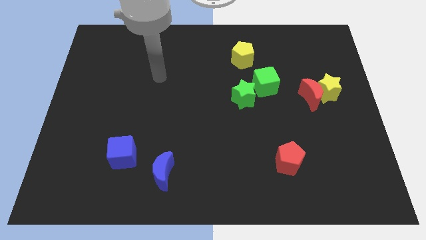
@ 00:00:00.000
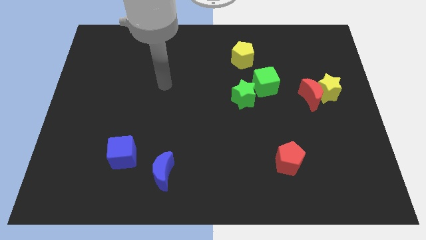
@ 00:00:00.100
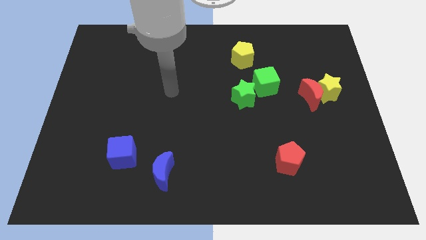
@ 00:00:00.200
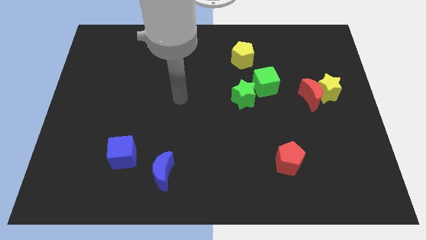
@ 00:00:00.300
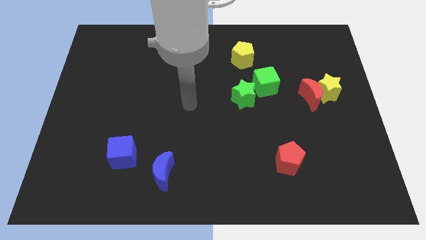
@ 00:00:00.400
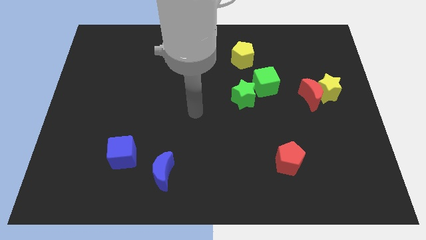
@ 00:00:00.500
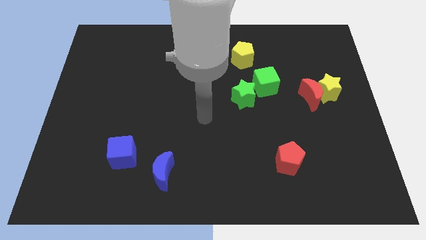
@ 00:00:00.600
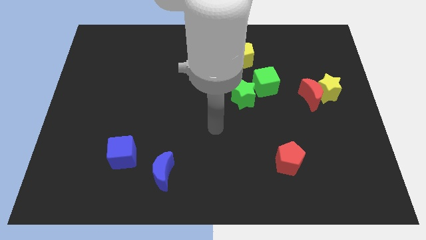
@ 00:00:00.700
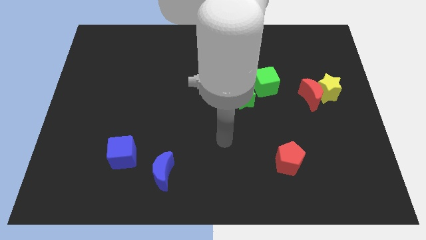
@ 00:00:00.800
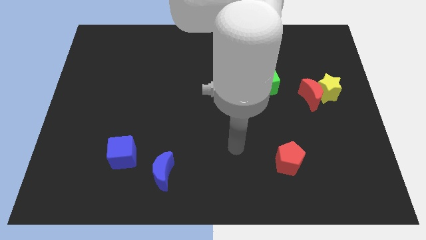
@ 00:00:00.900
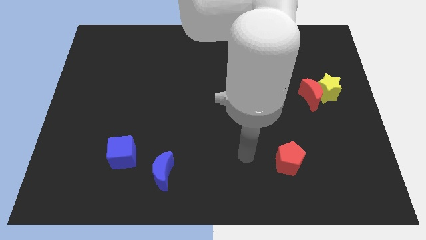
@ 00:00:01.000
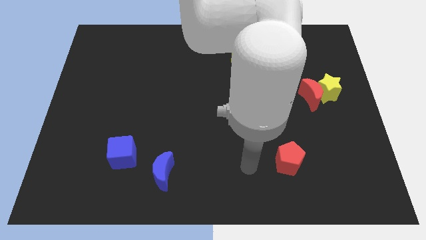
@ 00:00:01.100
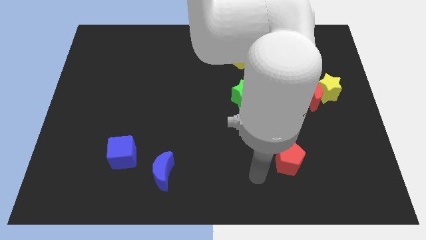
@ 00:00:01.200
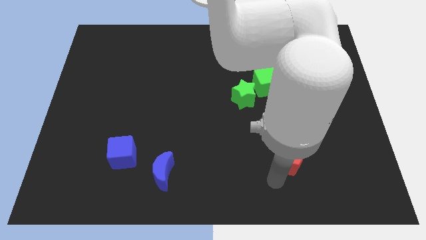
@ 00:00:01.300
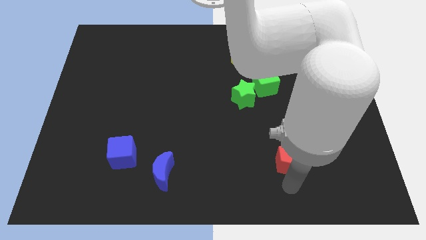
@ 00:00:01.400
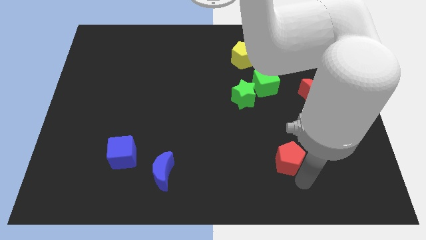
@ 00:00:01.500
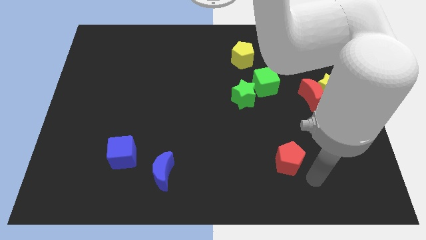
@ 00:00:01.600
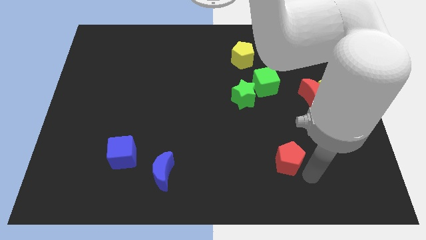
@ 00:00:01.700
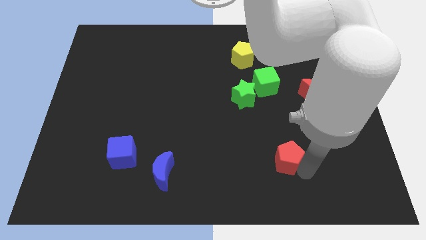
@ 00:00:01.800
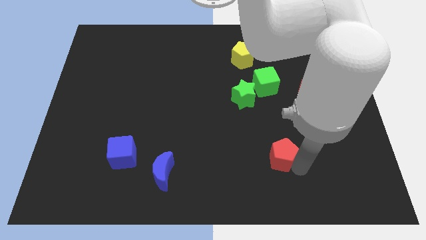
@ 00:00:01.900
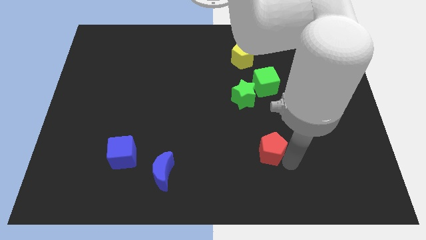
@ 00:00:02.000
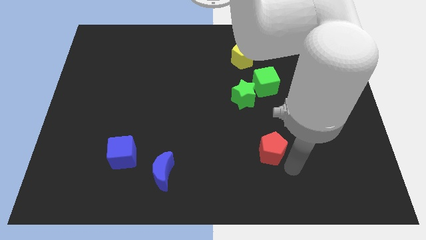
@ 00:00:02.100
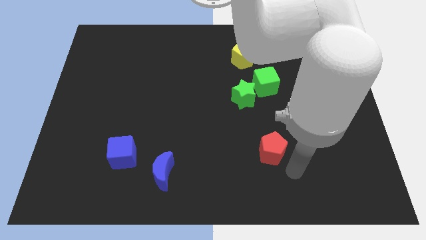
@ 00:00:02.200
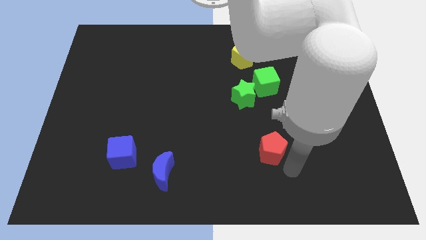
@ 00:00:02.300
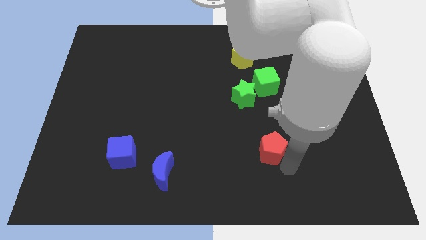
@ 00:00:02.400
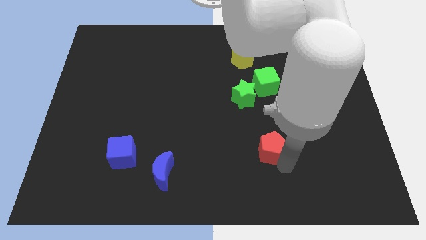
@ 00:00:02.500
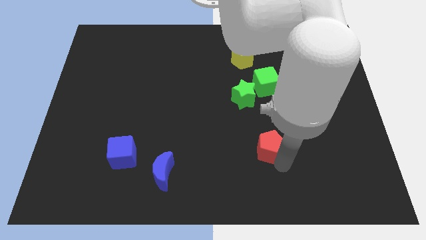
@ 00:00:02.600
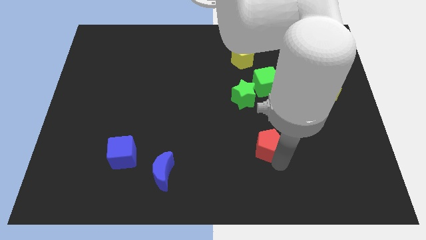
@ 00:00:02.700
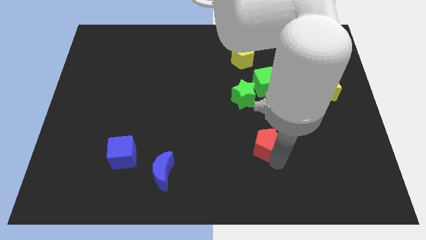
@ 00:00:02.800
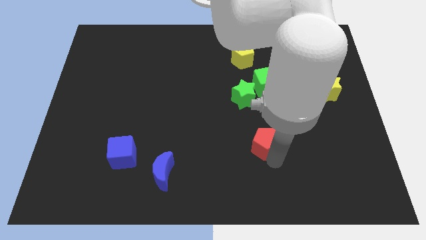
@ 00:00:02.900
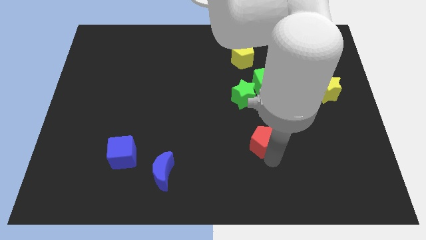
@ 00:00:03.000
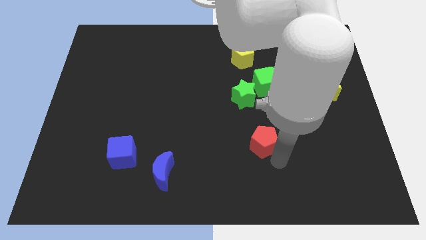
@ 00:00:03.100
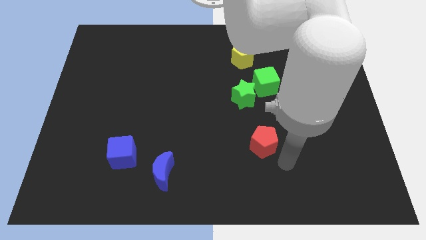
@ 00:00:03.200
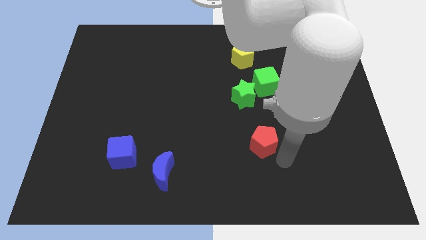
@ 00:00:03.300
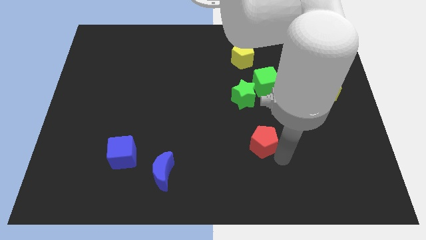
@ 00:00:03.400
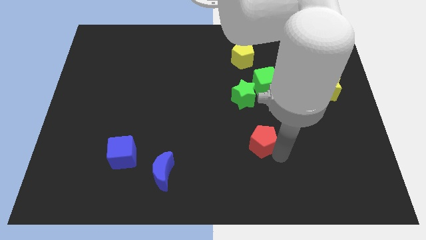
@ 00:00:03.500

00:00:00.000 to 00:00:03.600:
push the red pentagon upwards and then left a bit

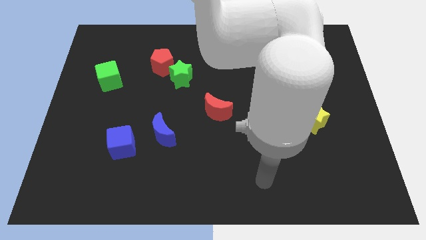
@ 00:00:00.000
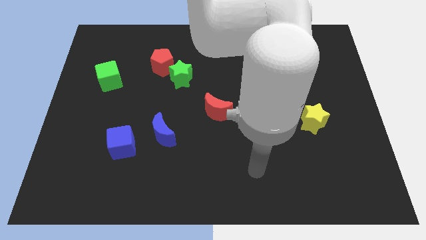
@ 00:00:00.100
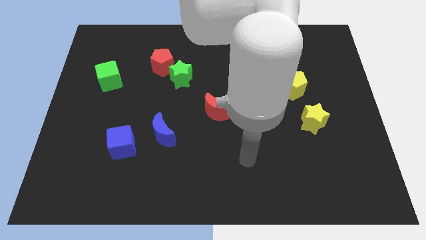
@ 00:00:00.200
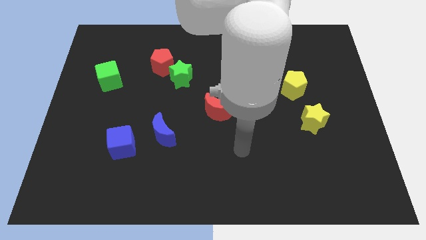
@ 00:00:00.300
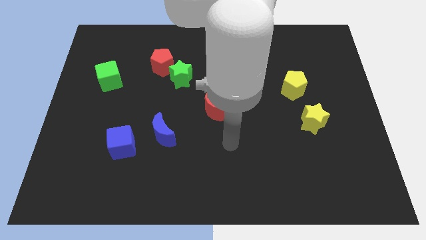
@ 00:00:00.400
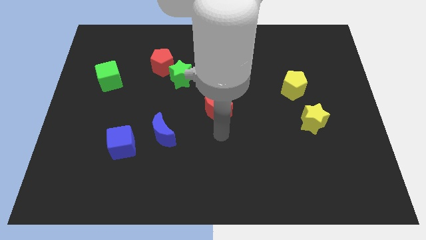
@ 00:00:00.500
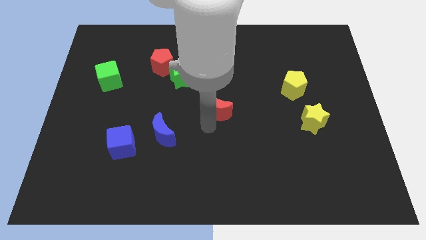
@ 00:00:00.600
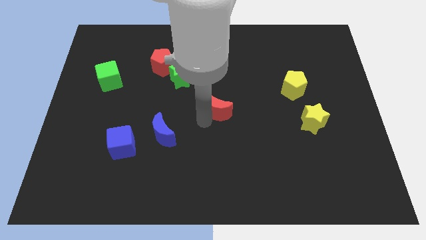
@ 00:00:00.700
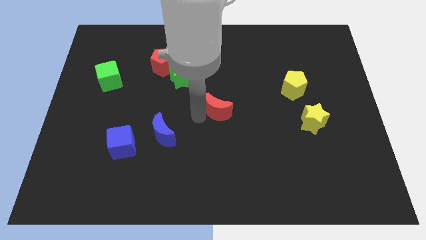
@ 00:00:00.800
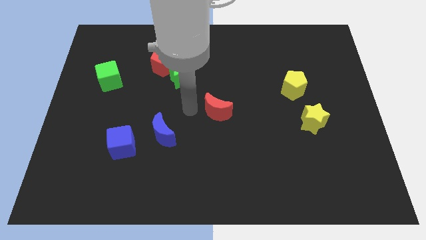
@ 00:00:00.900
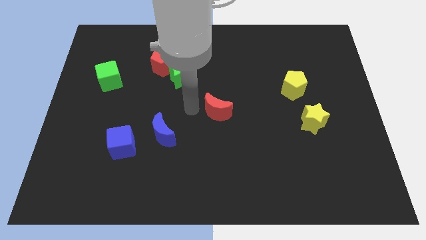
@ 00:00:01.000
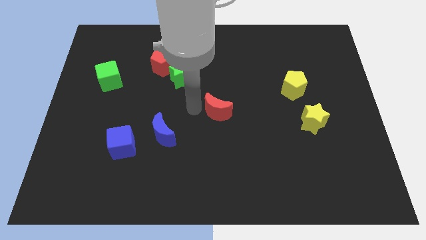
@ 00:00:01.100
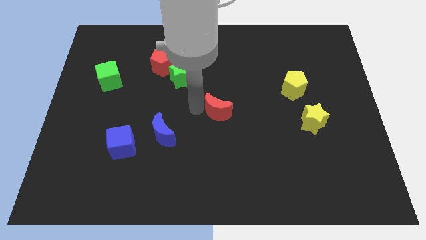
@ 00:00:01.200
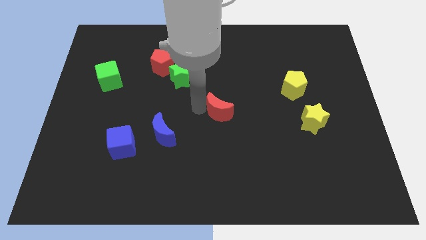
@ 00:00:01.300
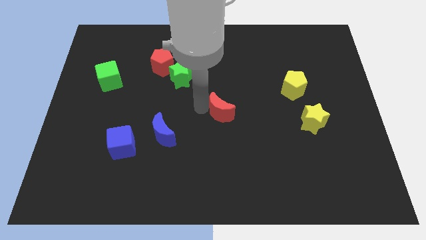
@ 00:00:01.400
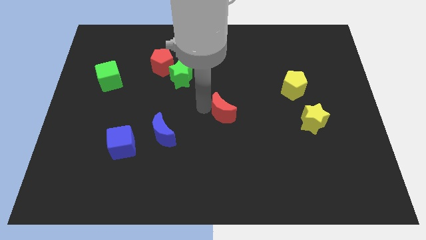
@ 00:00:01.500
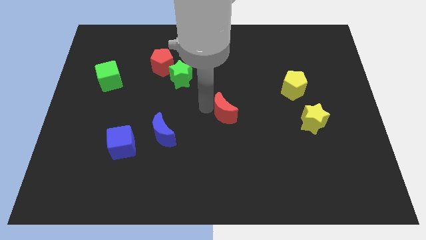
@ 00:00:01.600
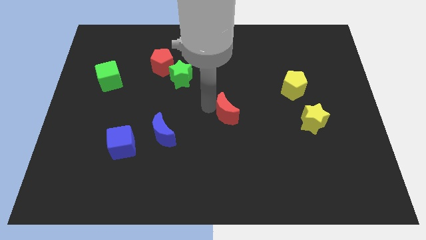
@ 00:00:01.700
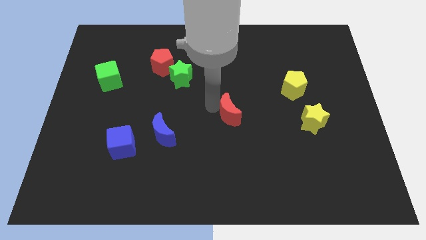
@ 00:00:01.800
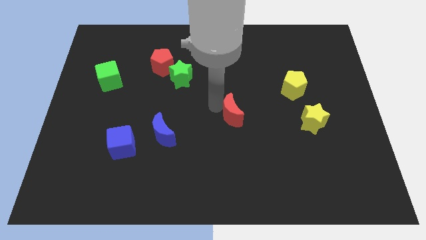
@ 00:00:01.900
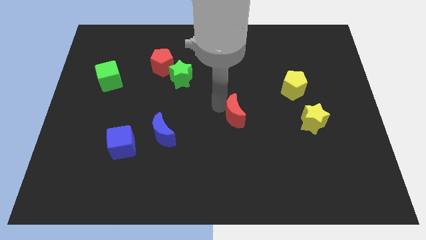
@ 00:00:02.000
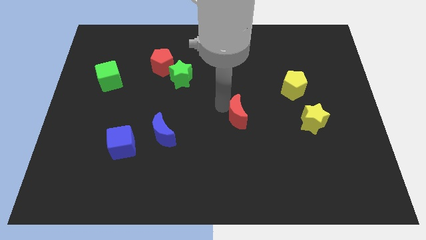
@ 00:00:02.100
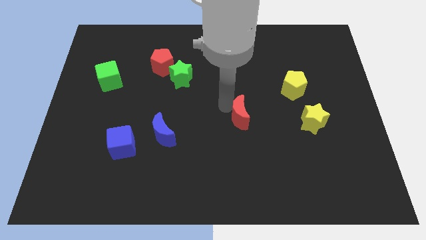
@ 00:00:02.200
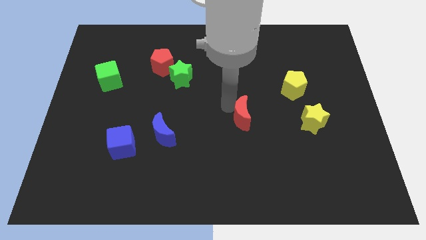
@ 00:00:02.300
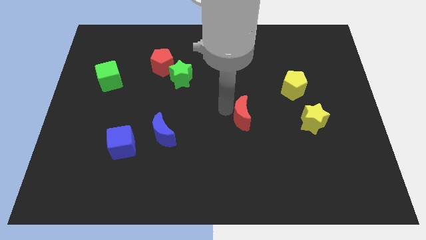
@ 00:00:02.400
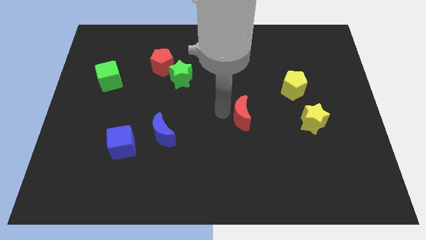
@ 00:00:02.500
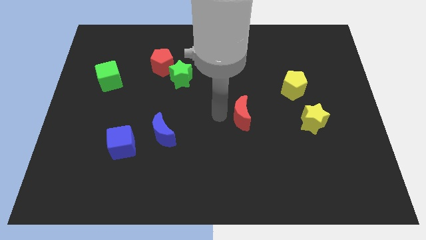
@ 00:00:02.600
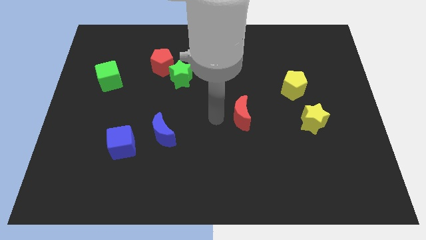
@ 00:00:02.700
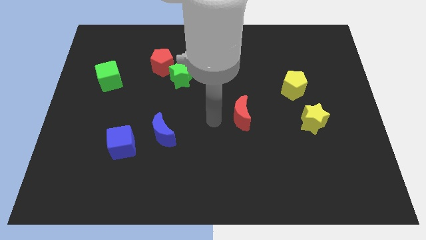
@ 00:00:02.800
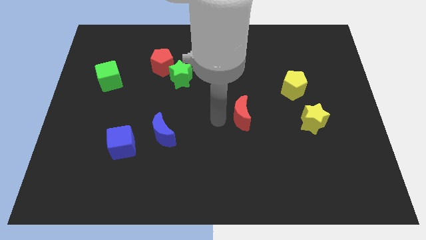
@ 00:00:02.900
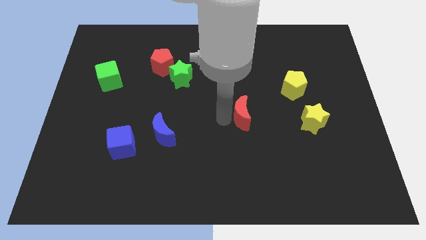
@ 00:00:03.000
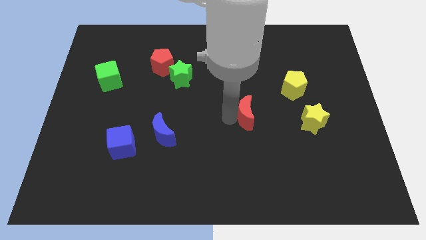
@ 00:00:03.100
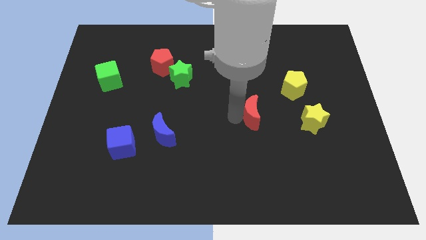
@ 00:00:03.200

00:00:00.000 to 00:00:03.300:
push the red moon to the right a bit

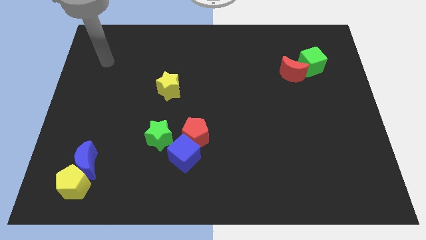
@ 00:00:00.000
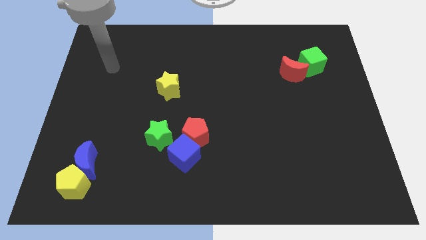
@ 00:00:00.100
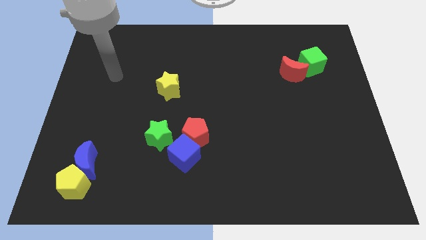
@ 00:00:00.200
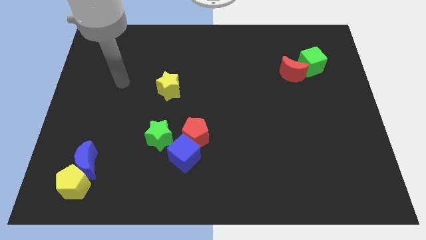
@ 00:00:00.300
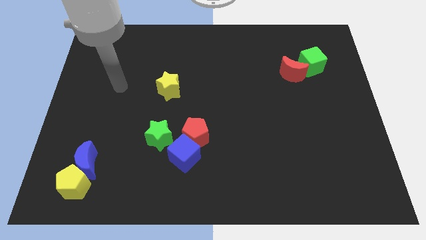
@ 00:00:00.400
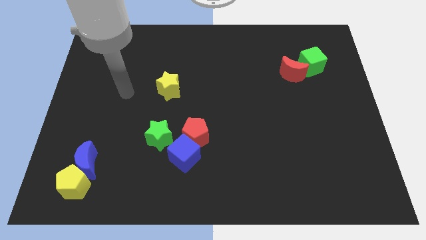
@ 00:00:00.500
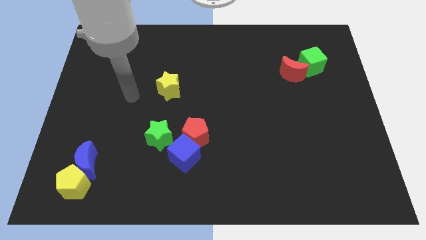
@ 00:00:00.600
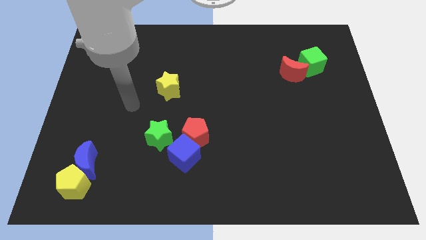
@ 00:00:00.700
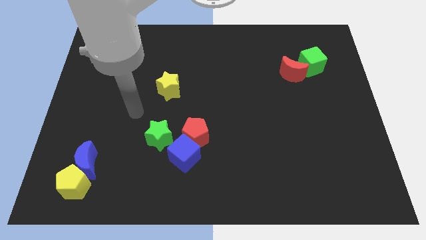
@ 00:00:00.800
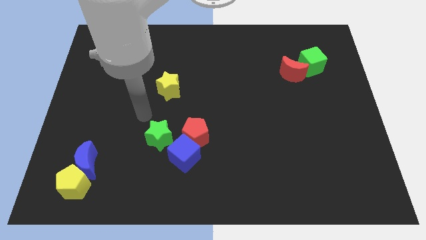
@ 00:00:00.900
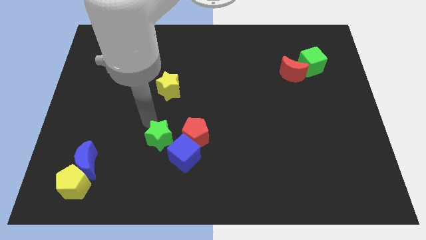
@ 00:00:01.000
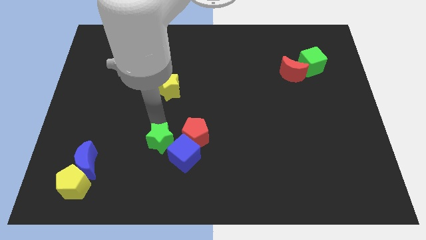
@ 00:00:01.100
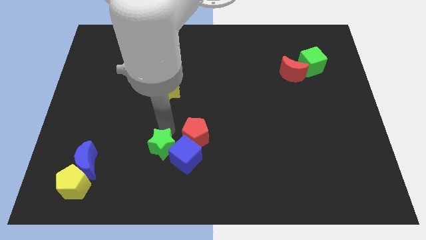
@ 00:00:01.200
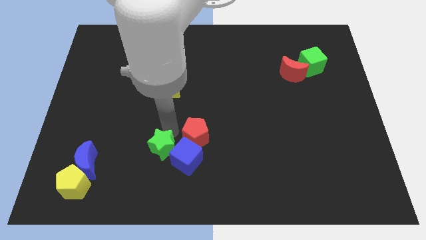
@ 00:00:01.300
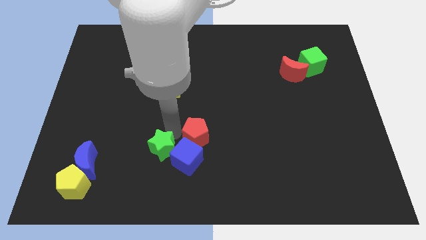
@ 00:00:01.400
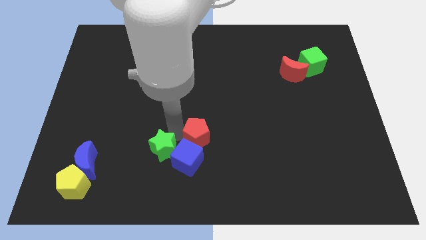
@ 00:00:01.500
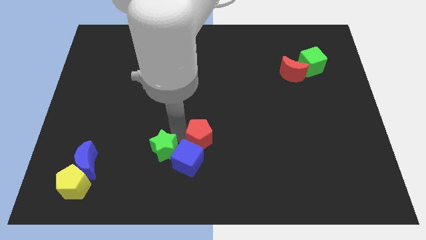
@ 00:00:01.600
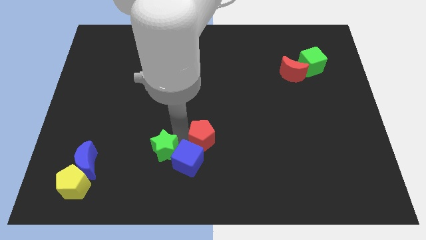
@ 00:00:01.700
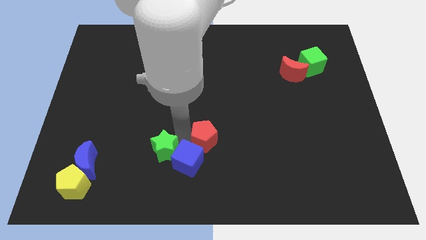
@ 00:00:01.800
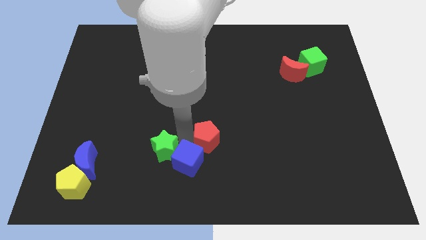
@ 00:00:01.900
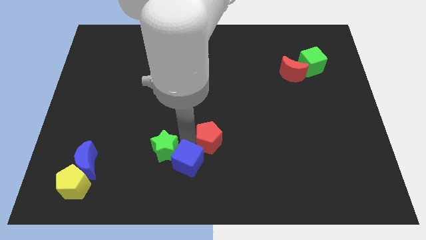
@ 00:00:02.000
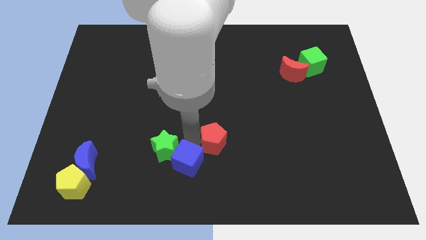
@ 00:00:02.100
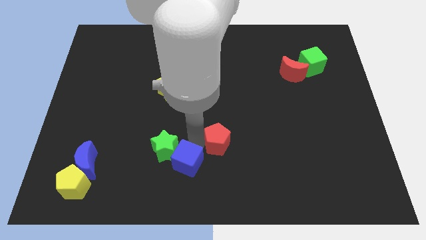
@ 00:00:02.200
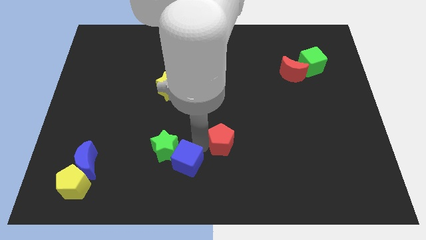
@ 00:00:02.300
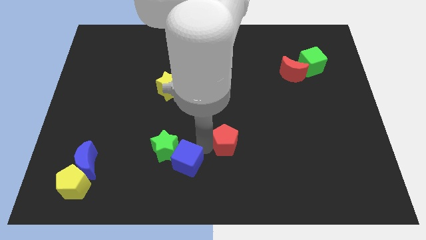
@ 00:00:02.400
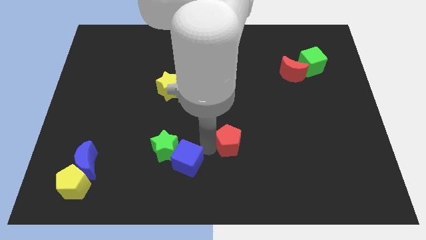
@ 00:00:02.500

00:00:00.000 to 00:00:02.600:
push the red pentagon slightly right
